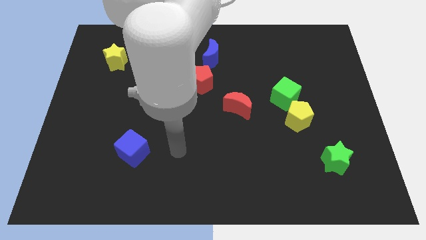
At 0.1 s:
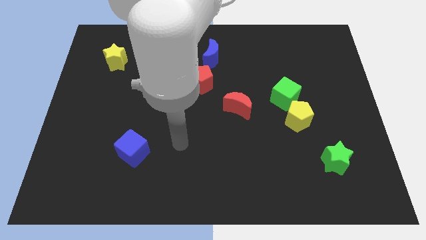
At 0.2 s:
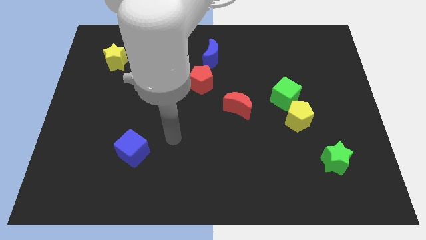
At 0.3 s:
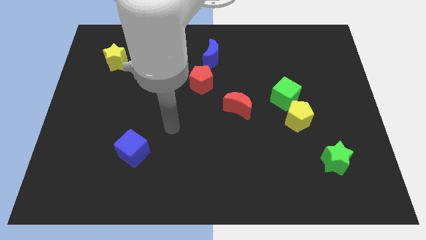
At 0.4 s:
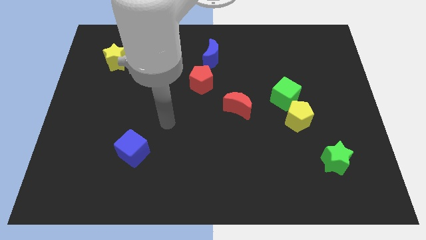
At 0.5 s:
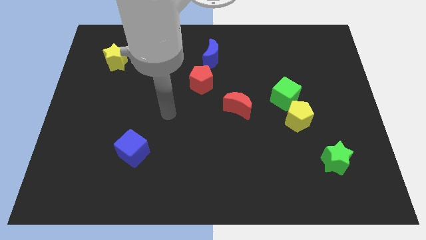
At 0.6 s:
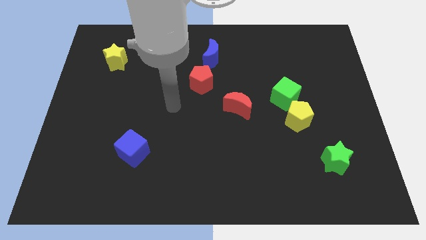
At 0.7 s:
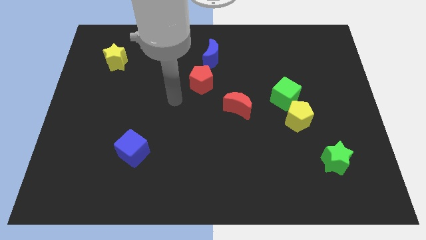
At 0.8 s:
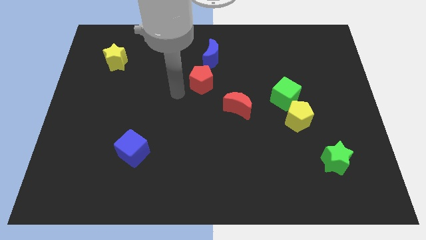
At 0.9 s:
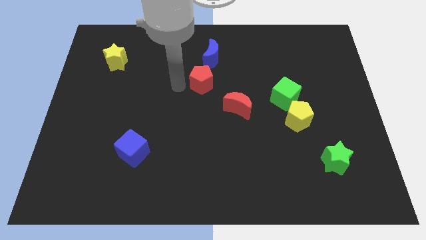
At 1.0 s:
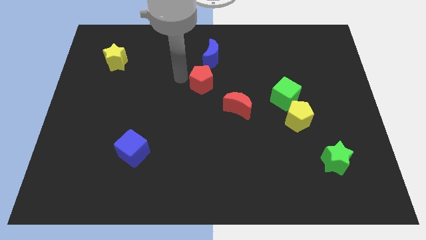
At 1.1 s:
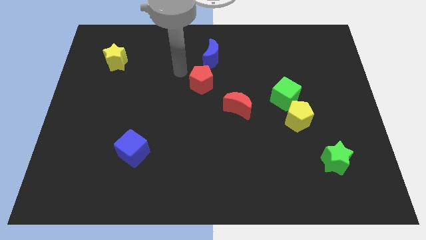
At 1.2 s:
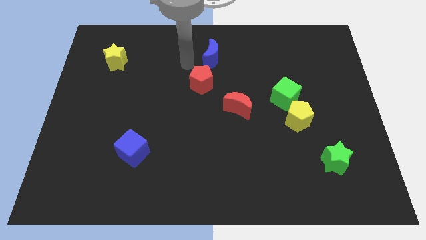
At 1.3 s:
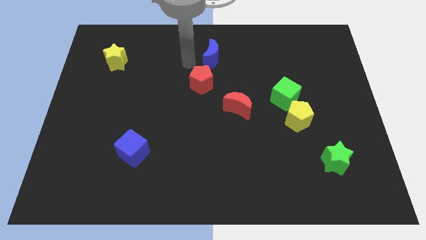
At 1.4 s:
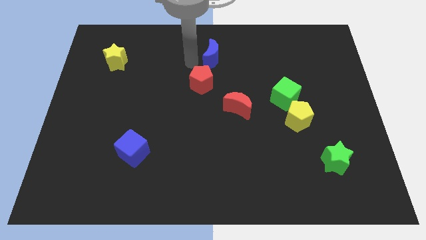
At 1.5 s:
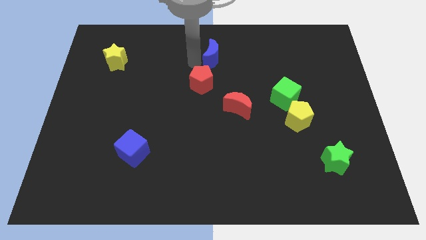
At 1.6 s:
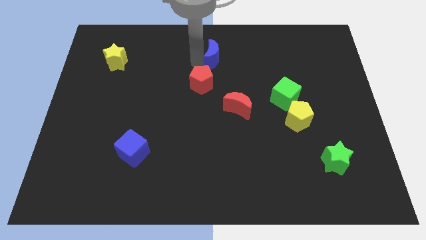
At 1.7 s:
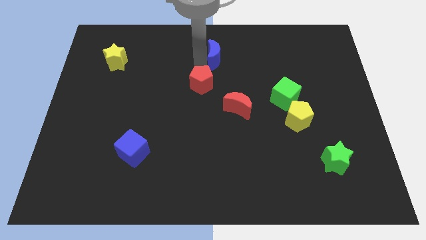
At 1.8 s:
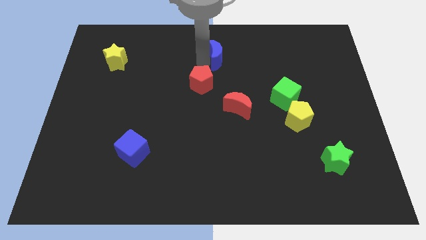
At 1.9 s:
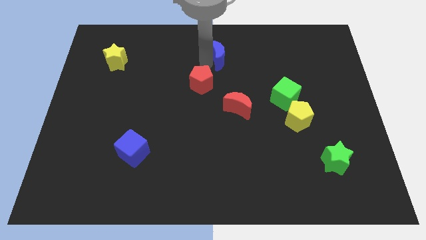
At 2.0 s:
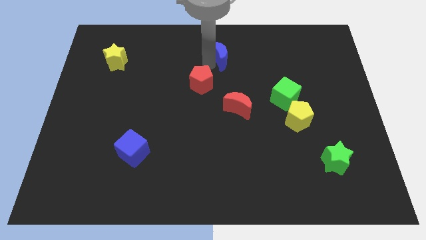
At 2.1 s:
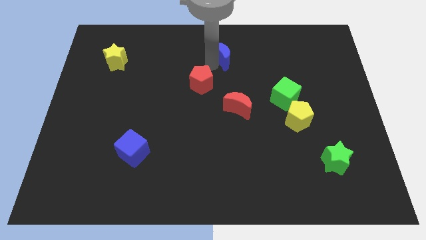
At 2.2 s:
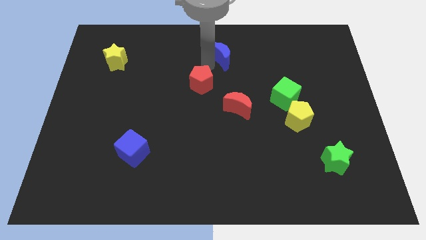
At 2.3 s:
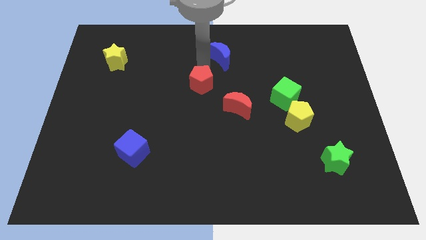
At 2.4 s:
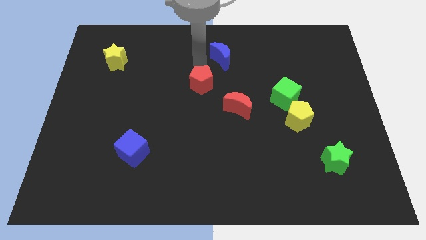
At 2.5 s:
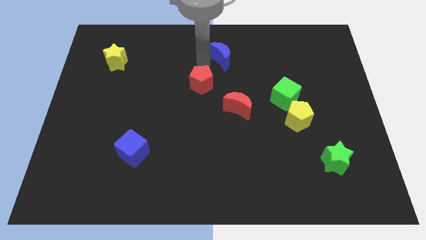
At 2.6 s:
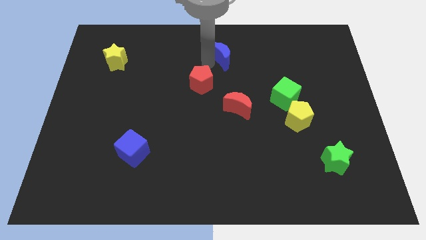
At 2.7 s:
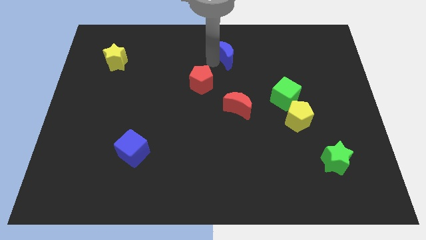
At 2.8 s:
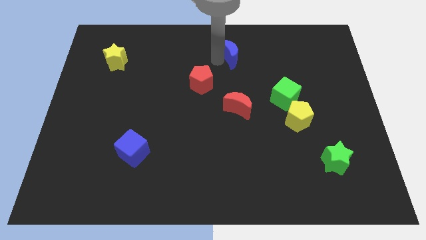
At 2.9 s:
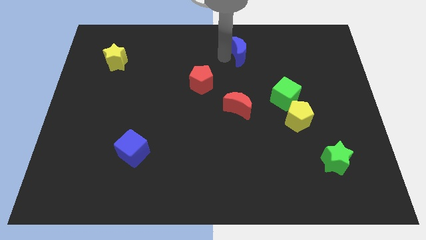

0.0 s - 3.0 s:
move the blue moon a little to the right

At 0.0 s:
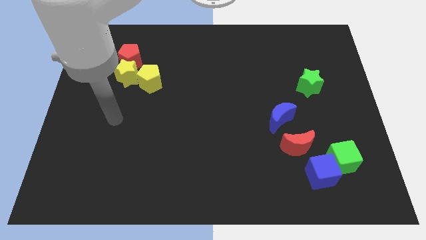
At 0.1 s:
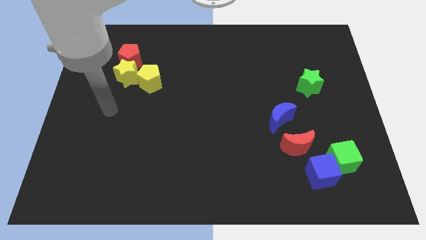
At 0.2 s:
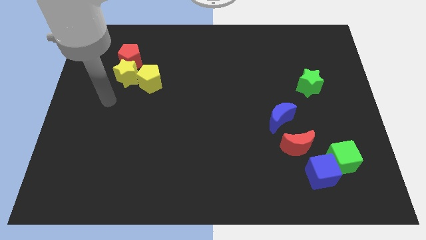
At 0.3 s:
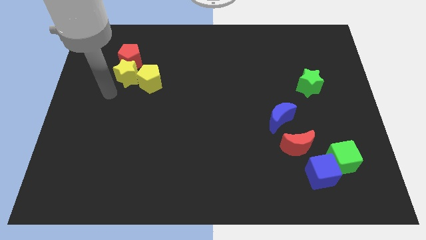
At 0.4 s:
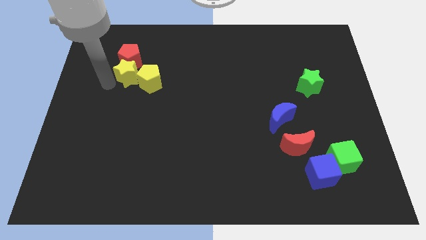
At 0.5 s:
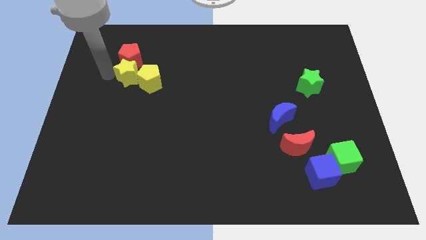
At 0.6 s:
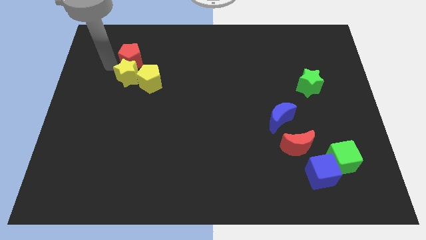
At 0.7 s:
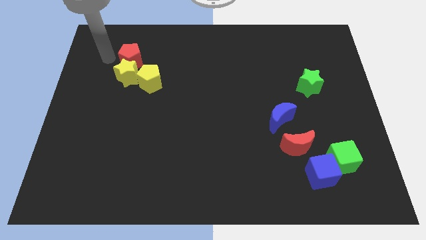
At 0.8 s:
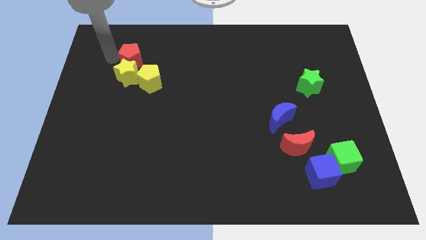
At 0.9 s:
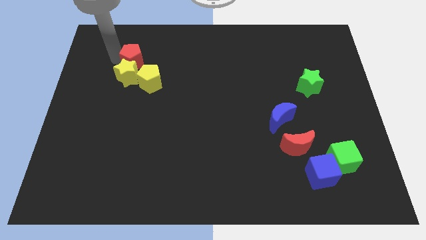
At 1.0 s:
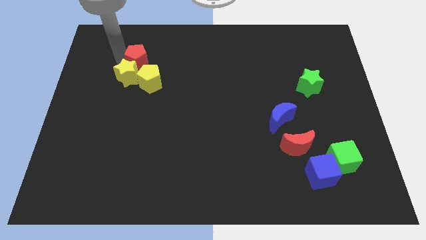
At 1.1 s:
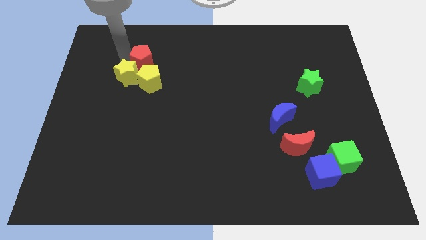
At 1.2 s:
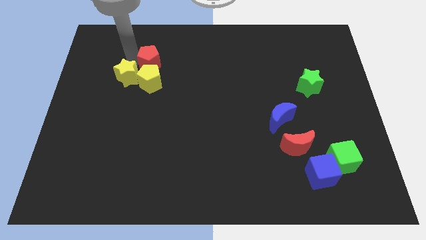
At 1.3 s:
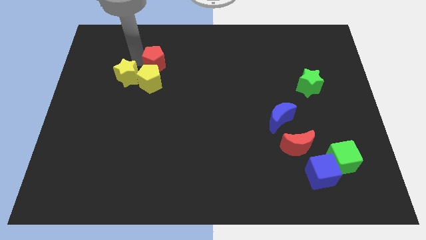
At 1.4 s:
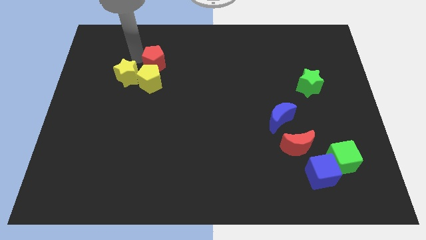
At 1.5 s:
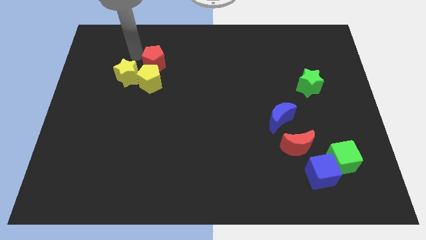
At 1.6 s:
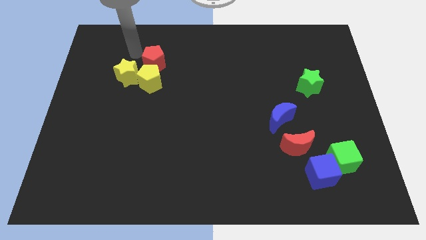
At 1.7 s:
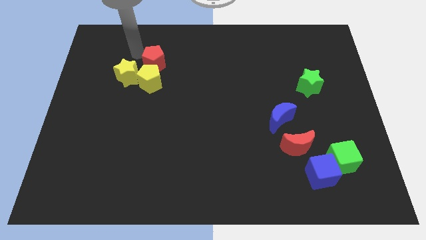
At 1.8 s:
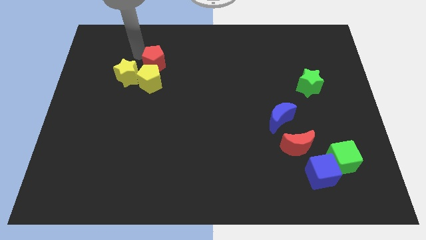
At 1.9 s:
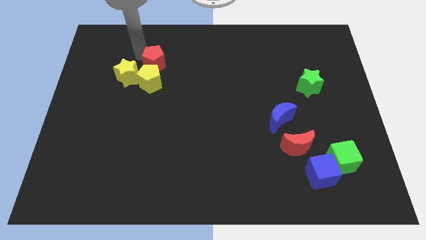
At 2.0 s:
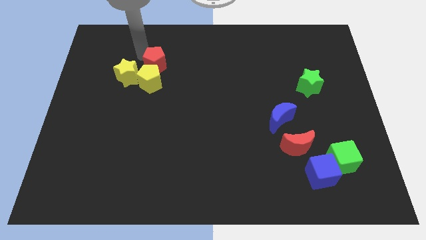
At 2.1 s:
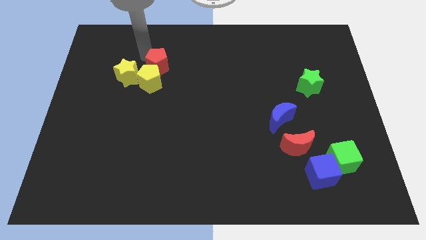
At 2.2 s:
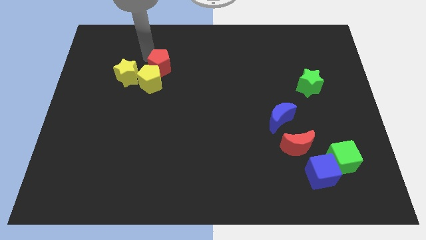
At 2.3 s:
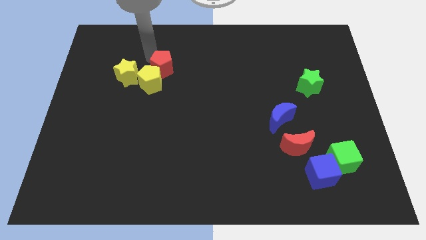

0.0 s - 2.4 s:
slightly push the red pentagon downwards and right diagonally

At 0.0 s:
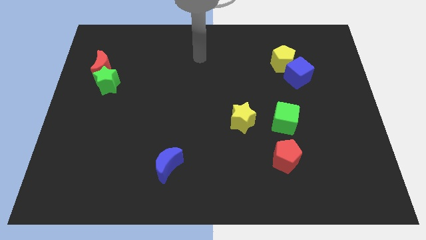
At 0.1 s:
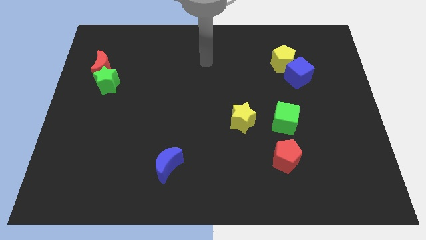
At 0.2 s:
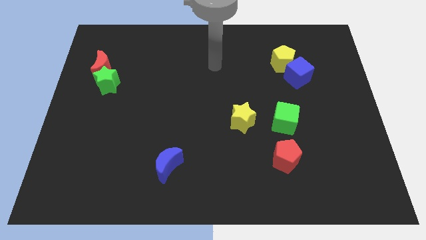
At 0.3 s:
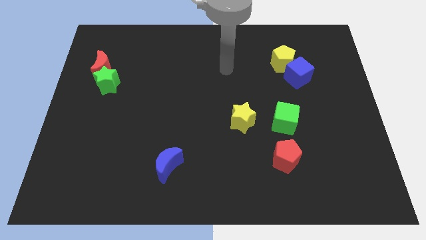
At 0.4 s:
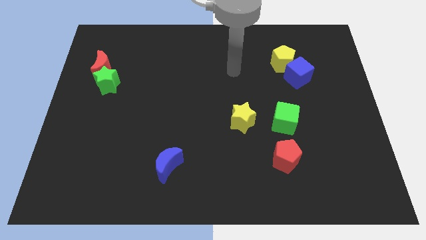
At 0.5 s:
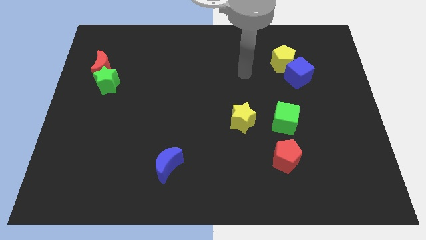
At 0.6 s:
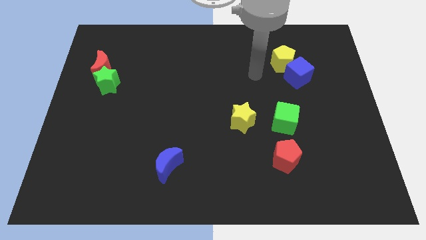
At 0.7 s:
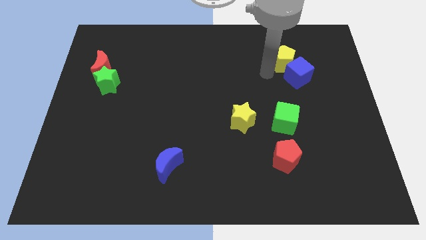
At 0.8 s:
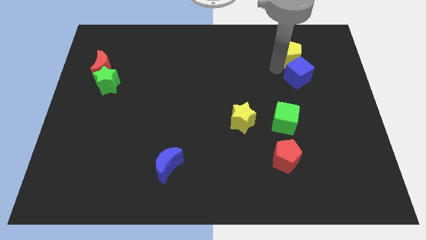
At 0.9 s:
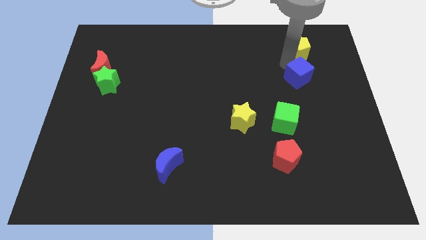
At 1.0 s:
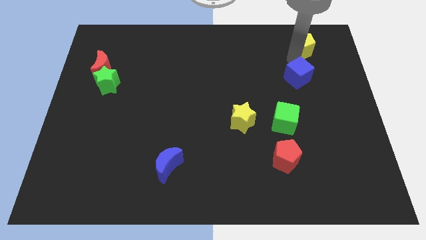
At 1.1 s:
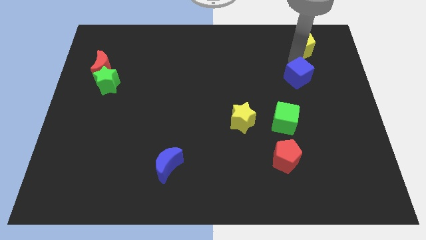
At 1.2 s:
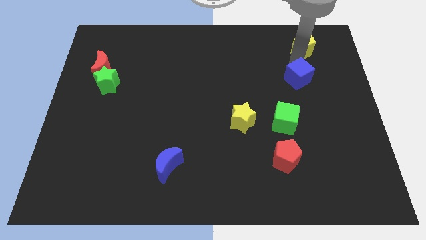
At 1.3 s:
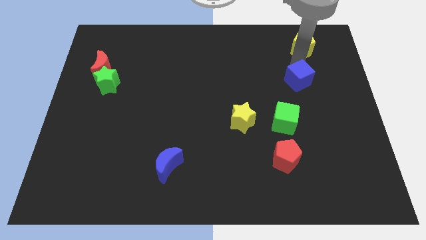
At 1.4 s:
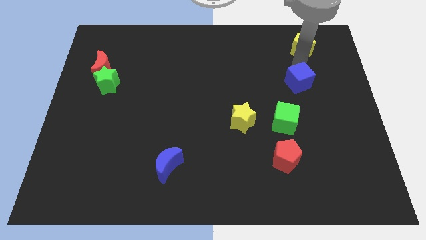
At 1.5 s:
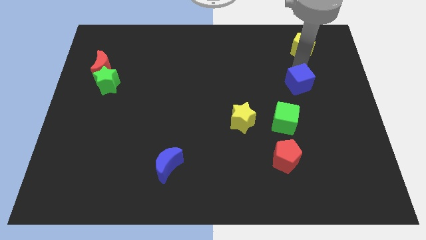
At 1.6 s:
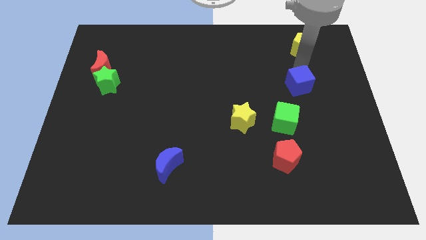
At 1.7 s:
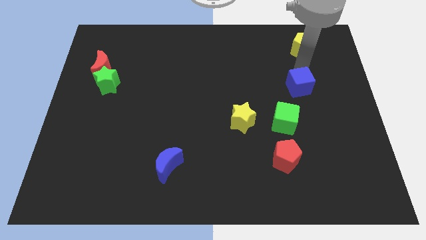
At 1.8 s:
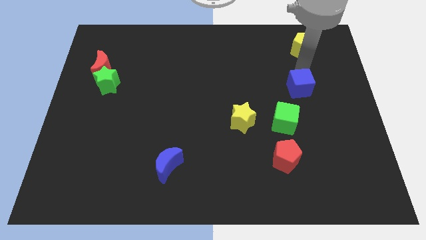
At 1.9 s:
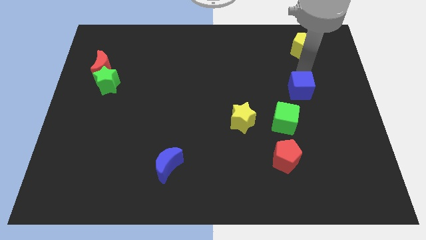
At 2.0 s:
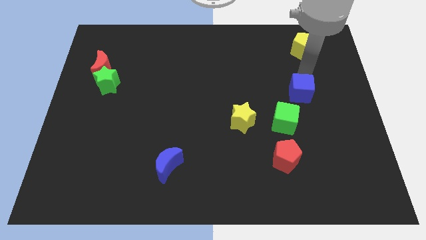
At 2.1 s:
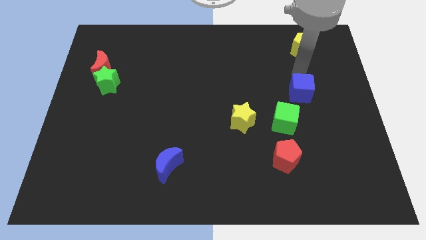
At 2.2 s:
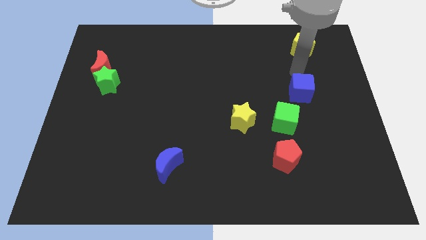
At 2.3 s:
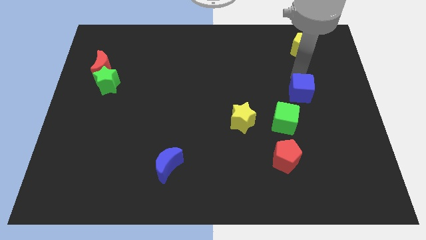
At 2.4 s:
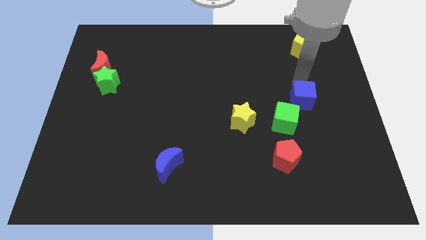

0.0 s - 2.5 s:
slightly push the blue cube downwards
